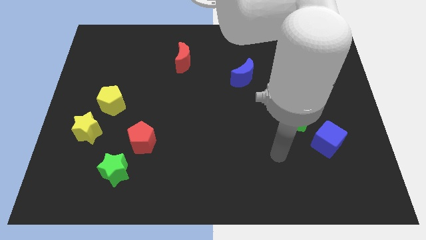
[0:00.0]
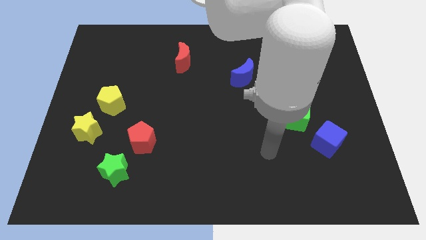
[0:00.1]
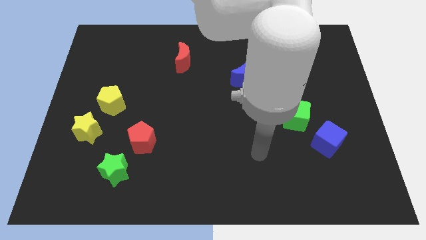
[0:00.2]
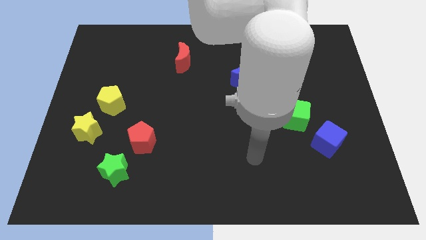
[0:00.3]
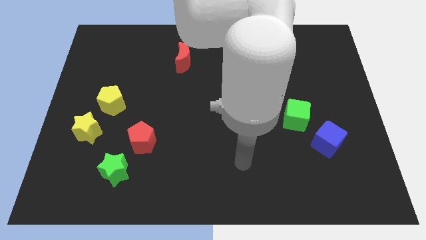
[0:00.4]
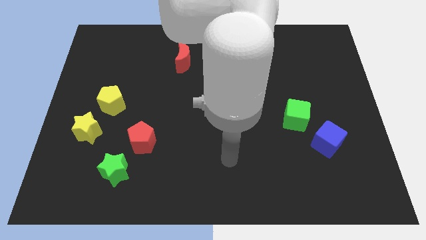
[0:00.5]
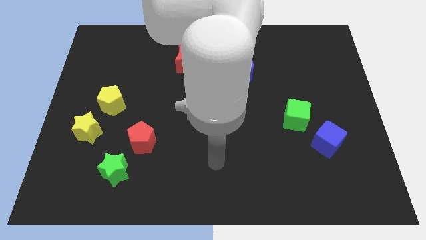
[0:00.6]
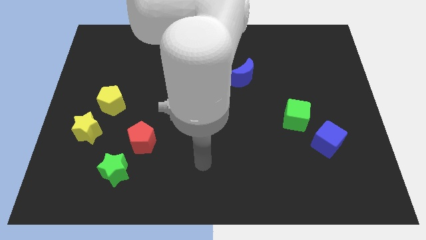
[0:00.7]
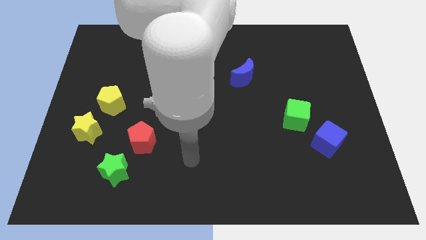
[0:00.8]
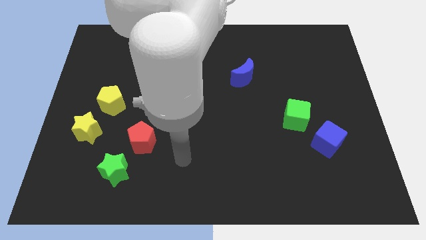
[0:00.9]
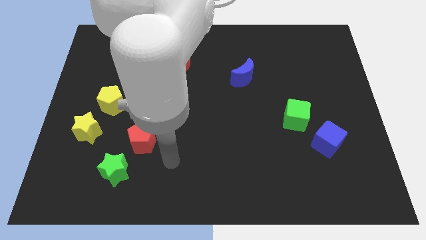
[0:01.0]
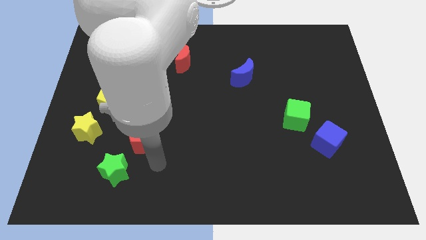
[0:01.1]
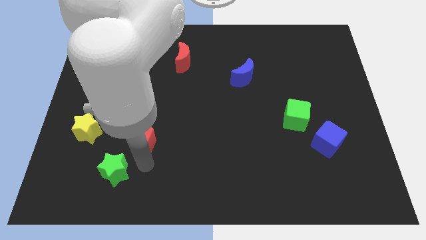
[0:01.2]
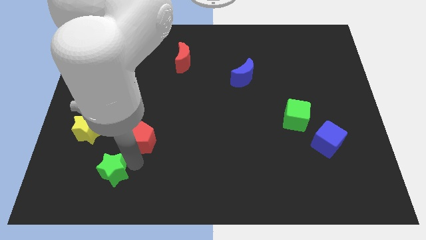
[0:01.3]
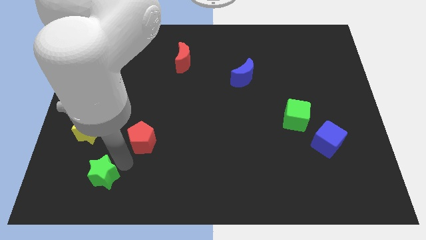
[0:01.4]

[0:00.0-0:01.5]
pull the red pentagon apart from the green star

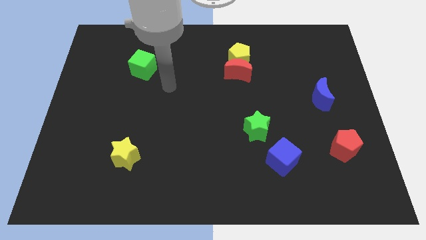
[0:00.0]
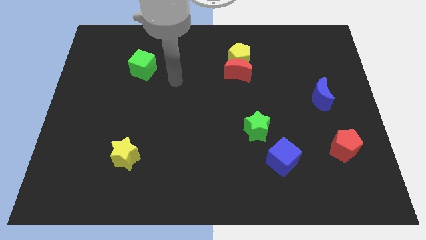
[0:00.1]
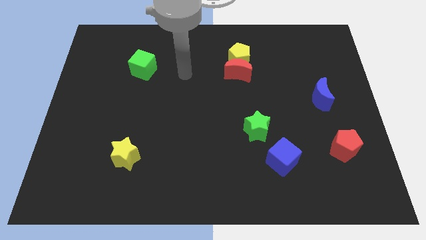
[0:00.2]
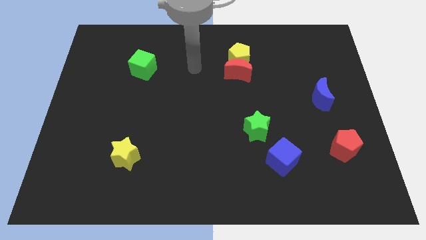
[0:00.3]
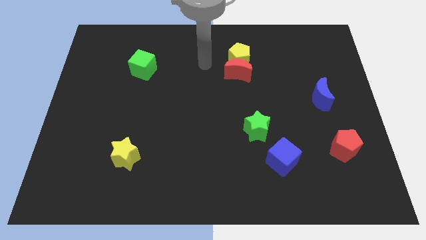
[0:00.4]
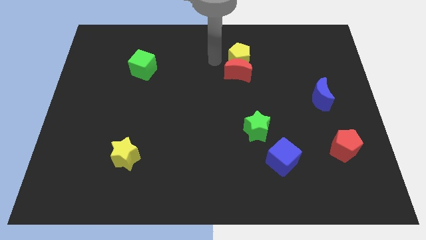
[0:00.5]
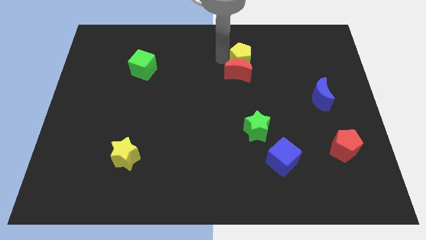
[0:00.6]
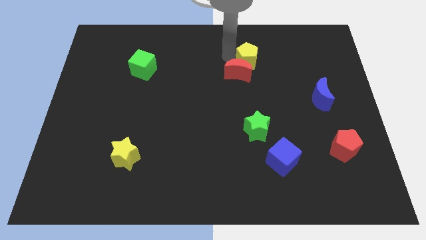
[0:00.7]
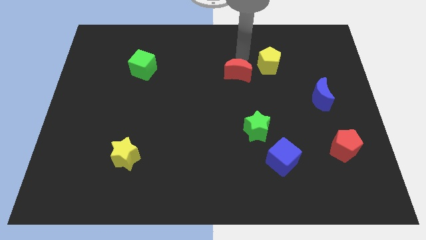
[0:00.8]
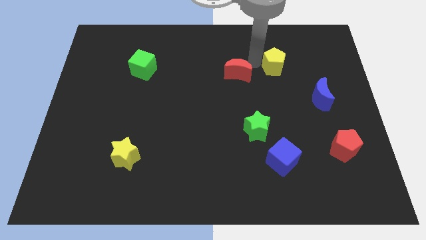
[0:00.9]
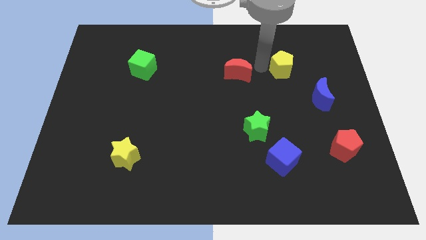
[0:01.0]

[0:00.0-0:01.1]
separate the red moon from the yellow pentagon

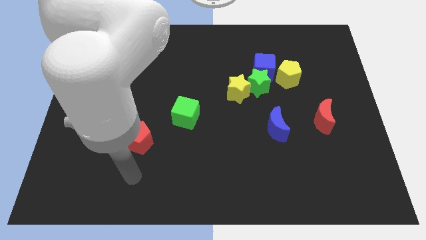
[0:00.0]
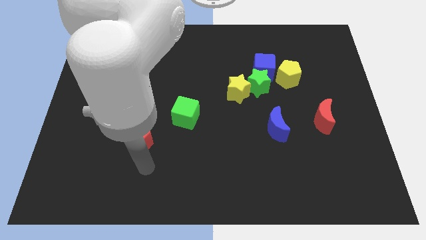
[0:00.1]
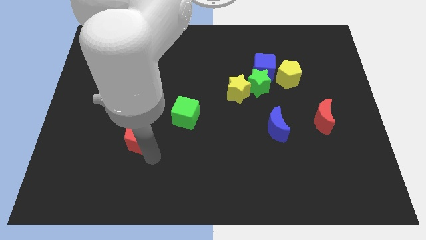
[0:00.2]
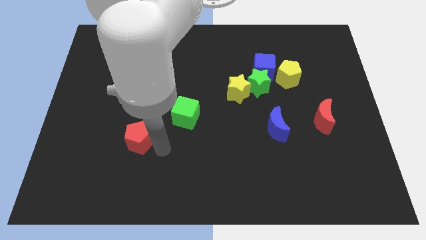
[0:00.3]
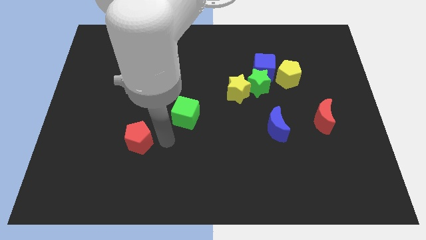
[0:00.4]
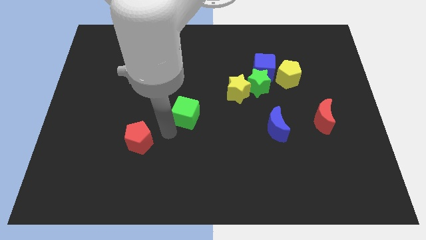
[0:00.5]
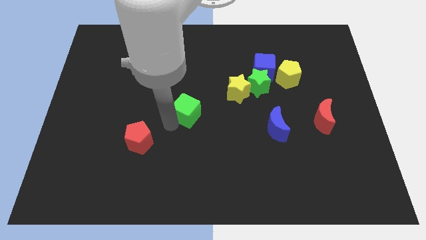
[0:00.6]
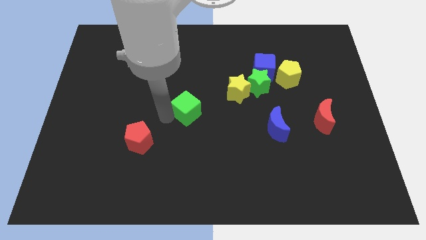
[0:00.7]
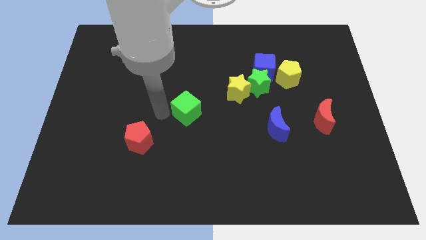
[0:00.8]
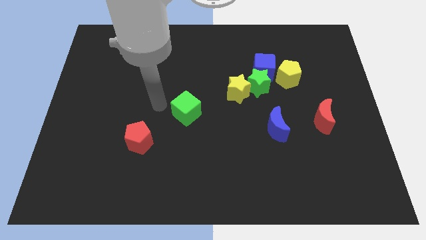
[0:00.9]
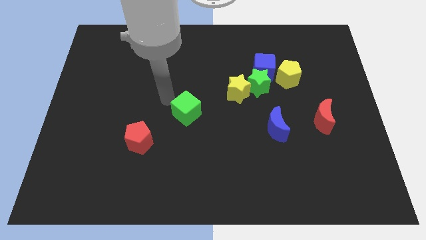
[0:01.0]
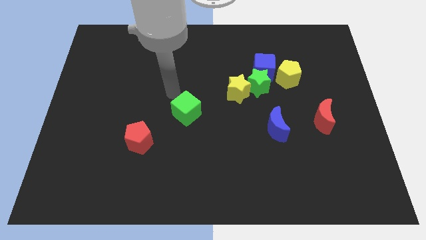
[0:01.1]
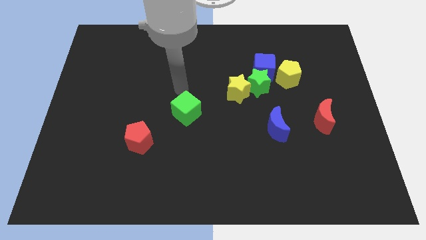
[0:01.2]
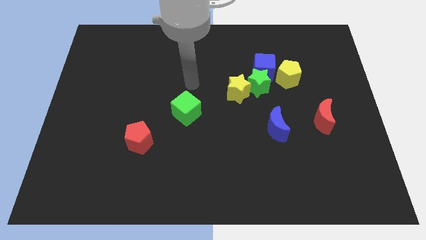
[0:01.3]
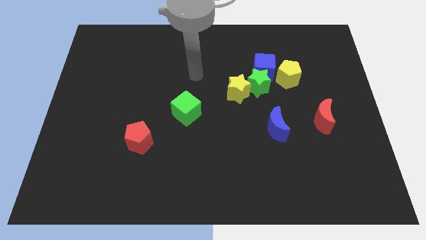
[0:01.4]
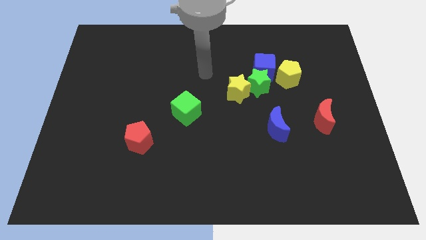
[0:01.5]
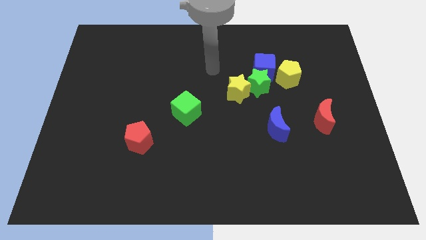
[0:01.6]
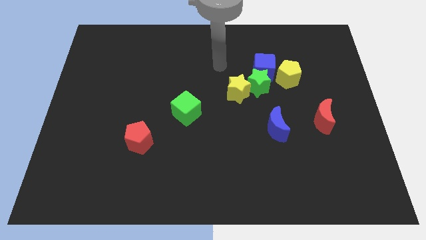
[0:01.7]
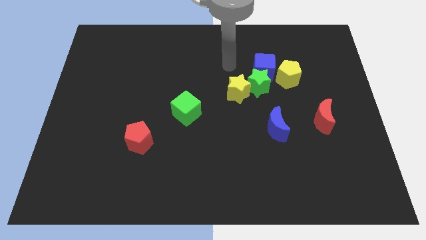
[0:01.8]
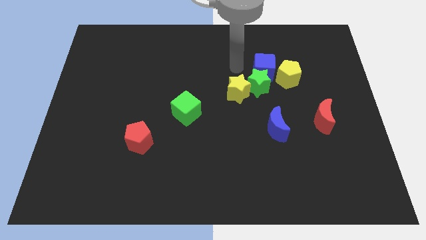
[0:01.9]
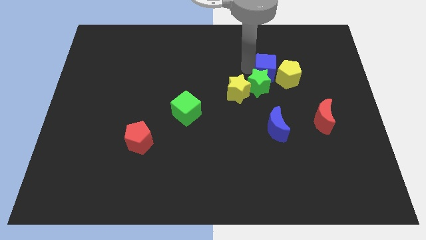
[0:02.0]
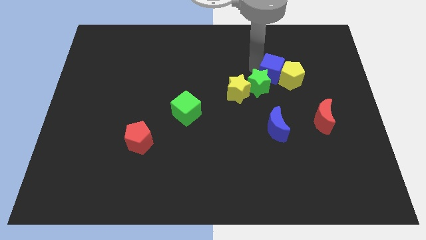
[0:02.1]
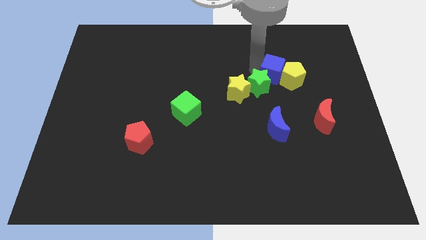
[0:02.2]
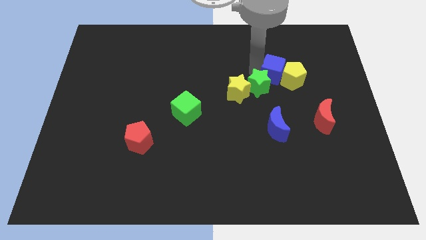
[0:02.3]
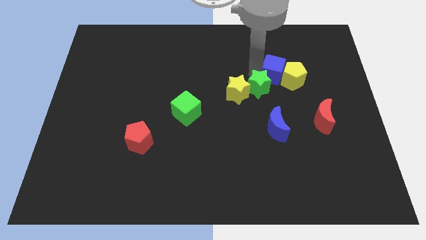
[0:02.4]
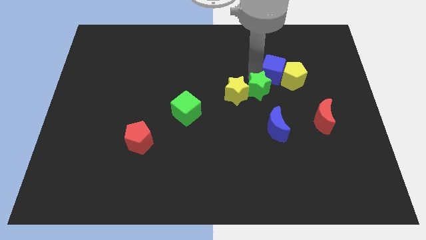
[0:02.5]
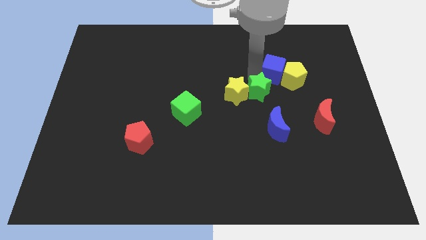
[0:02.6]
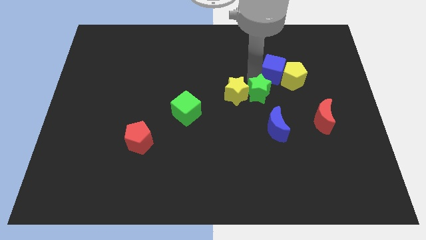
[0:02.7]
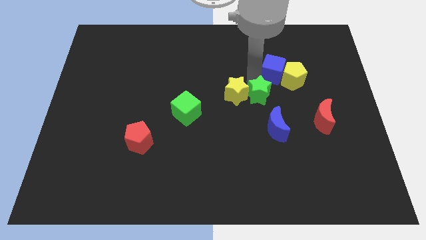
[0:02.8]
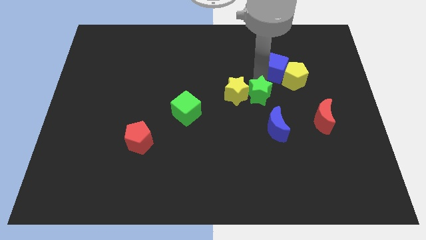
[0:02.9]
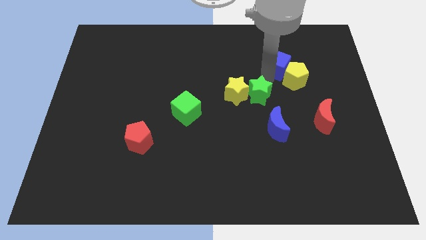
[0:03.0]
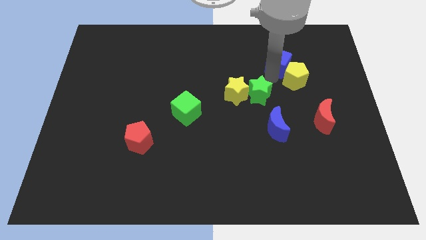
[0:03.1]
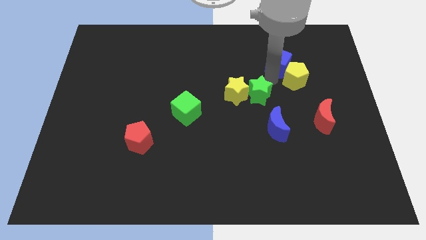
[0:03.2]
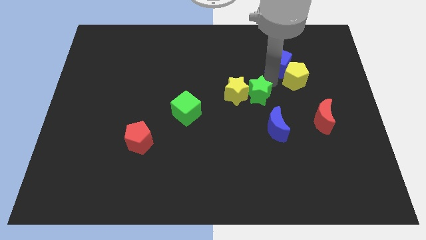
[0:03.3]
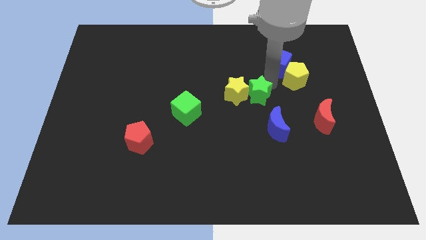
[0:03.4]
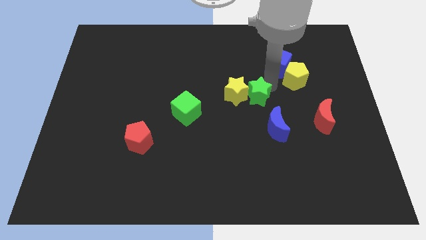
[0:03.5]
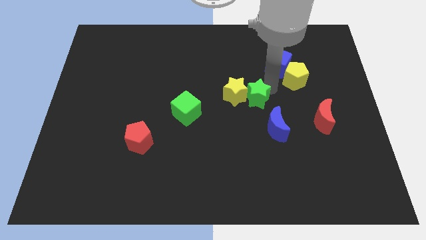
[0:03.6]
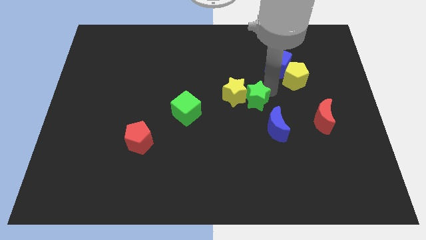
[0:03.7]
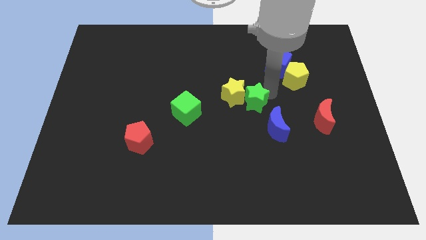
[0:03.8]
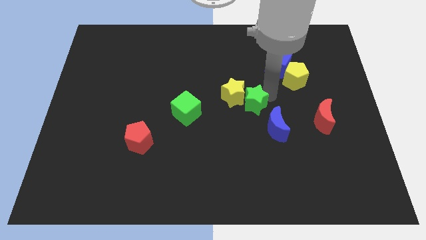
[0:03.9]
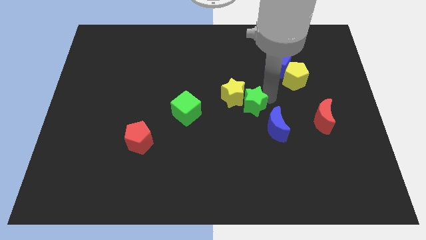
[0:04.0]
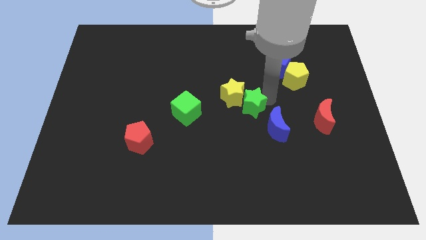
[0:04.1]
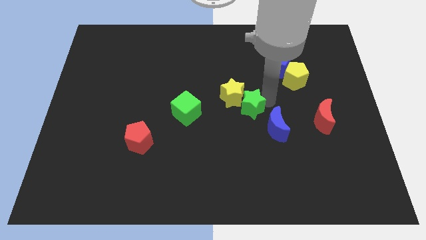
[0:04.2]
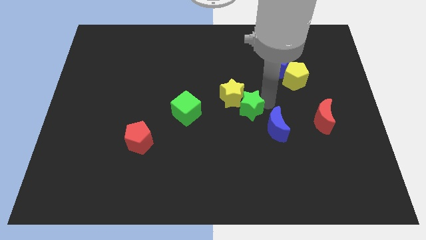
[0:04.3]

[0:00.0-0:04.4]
separate the green star from the blue cube, yellow star, and yellow pentagon

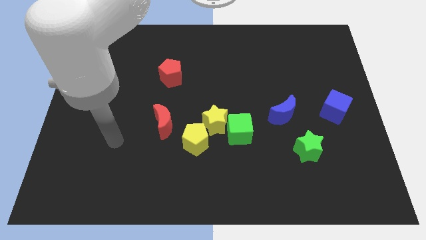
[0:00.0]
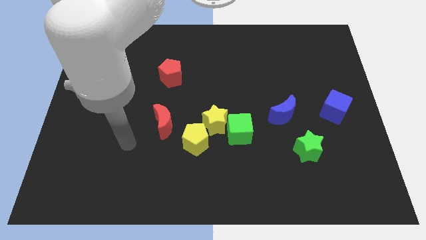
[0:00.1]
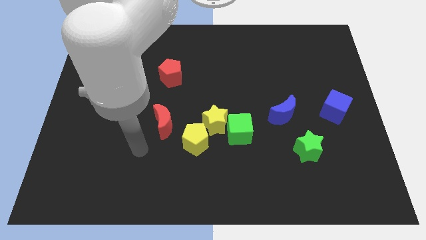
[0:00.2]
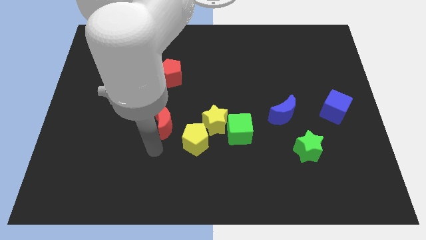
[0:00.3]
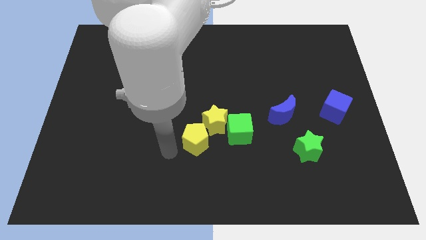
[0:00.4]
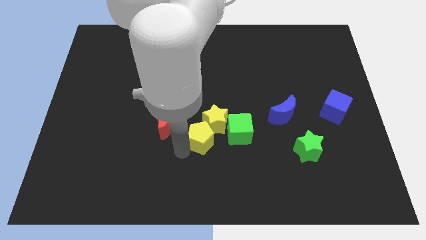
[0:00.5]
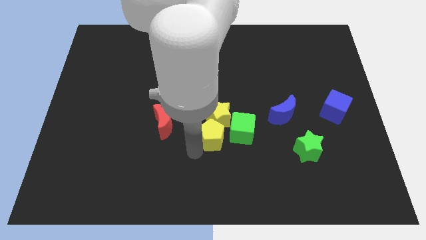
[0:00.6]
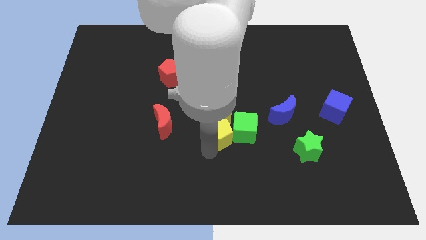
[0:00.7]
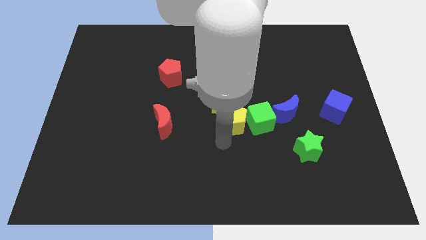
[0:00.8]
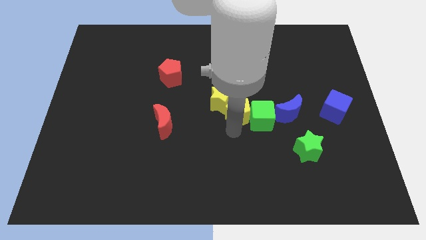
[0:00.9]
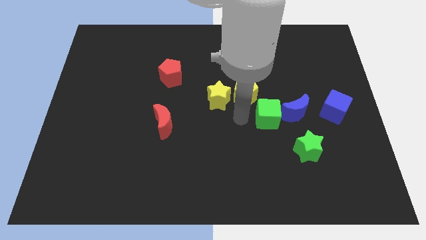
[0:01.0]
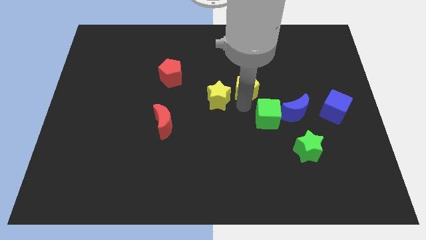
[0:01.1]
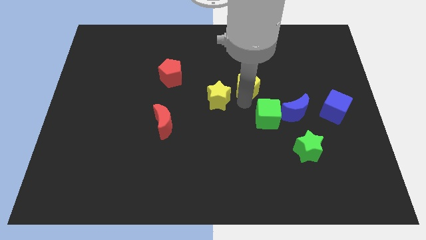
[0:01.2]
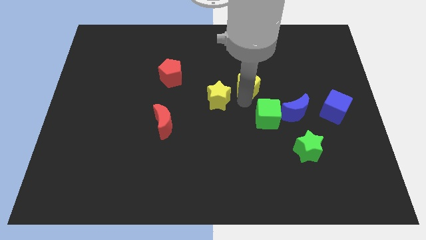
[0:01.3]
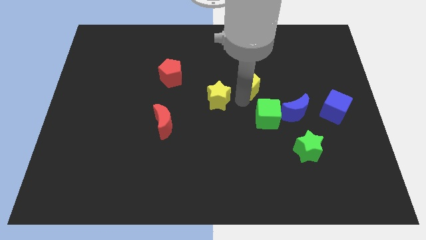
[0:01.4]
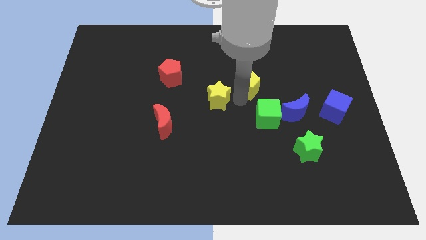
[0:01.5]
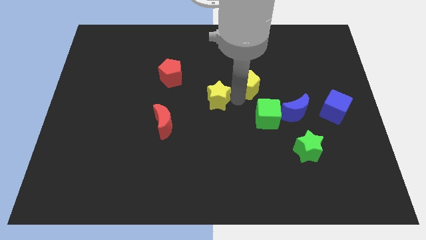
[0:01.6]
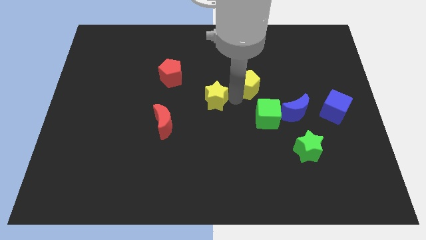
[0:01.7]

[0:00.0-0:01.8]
separate the yellow star from the green cube and yellow pentagon

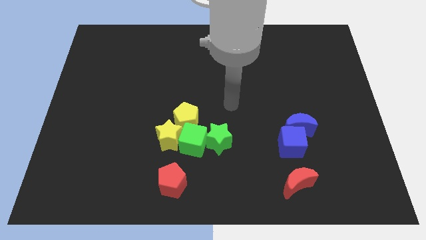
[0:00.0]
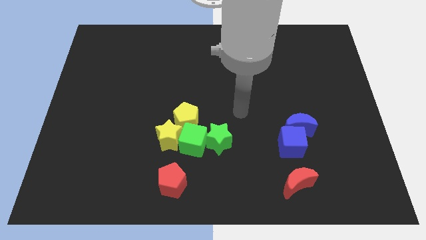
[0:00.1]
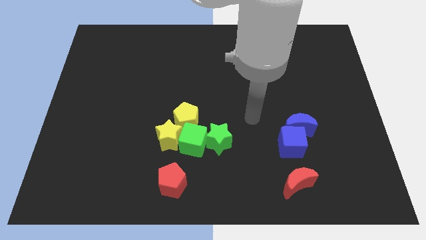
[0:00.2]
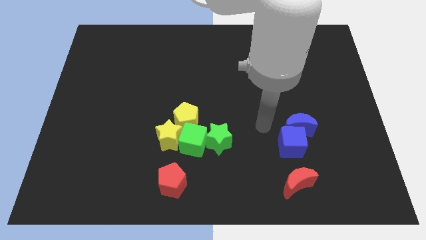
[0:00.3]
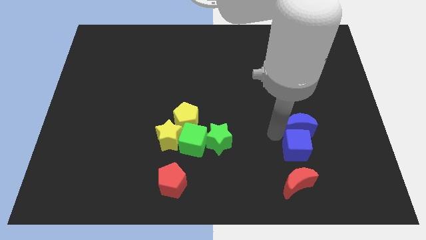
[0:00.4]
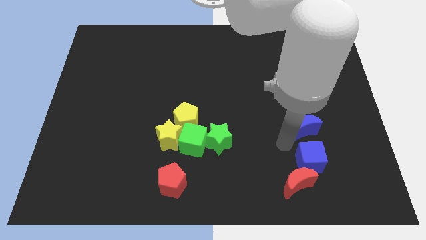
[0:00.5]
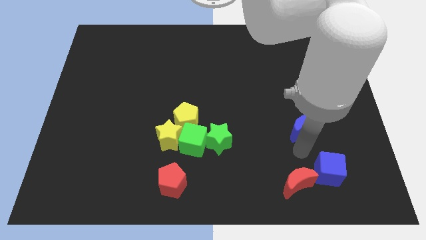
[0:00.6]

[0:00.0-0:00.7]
move the blue moon away from the blue cube
